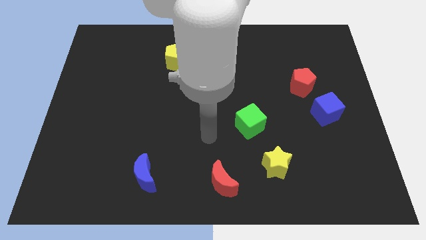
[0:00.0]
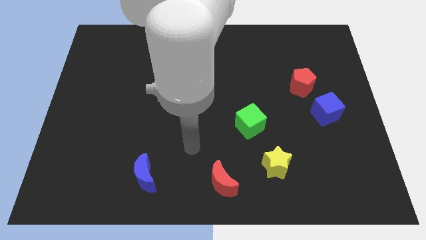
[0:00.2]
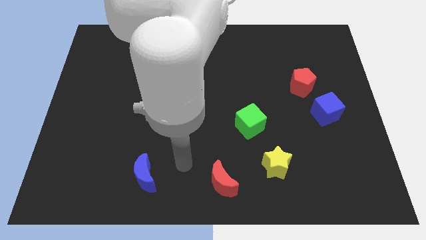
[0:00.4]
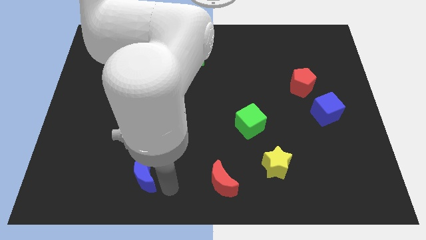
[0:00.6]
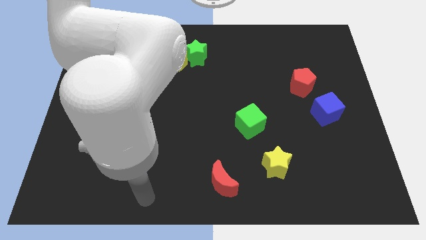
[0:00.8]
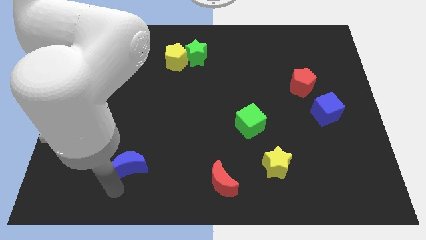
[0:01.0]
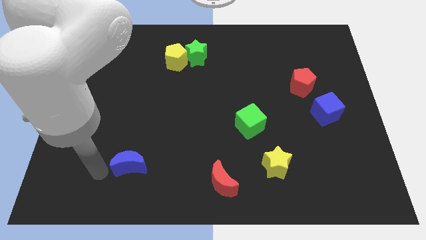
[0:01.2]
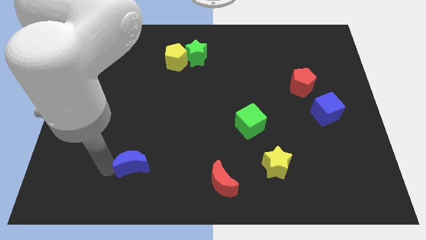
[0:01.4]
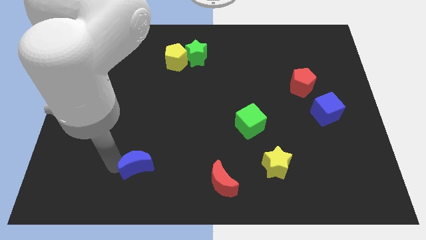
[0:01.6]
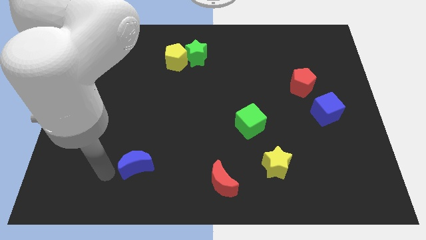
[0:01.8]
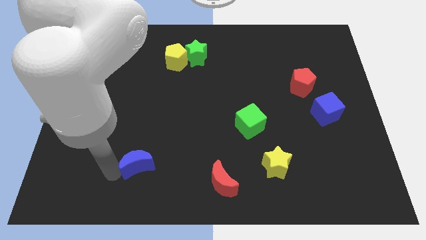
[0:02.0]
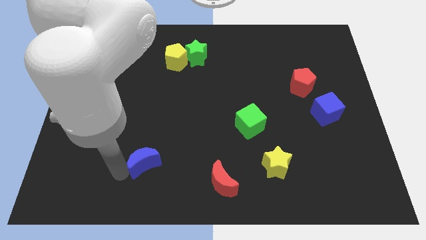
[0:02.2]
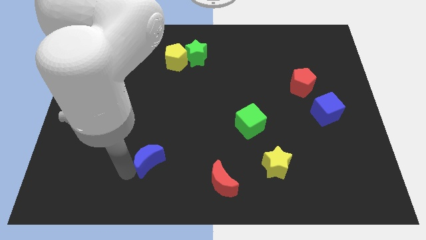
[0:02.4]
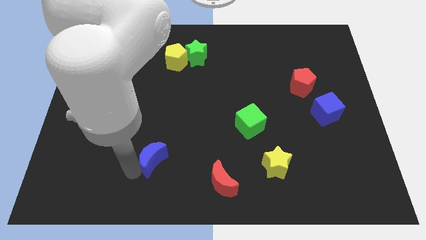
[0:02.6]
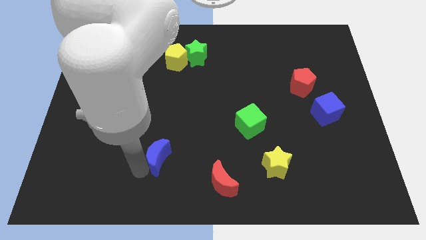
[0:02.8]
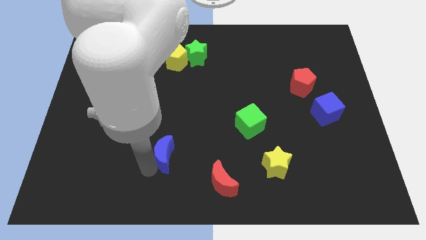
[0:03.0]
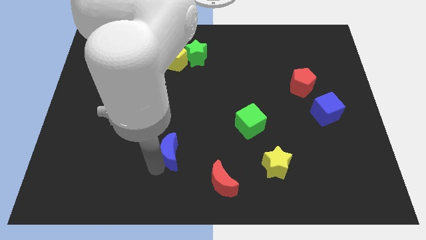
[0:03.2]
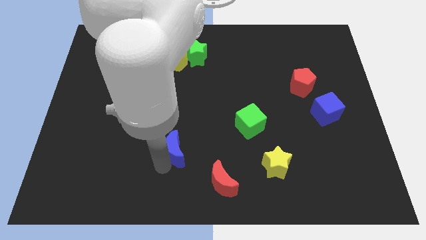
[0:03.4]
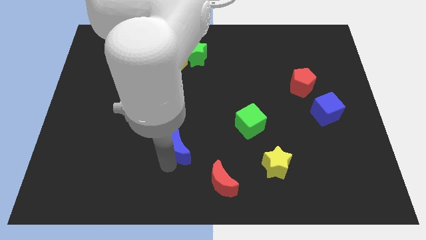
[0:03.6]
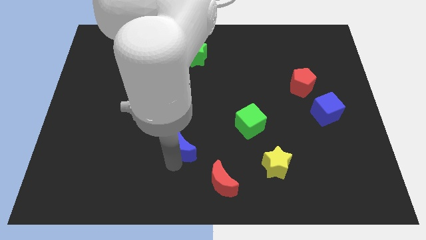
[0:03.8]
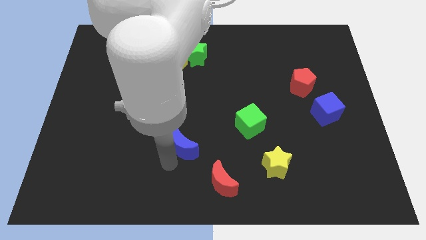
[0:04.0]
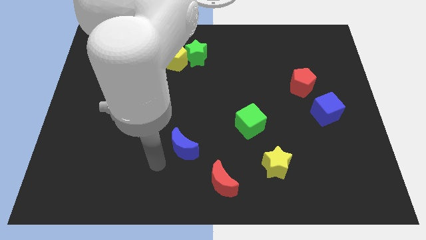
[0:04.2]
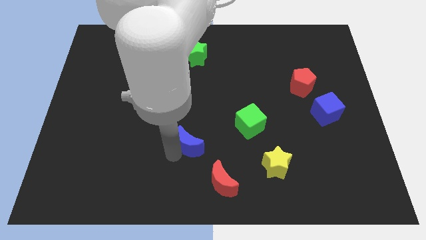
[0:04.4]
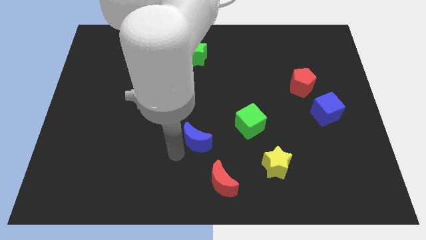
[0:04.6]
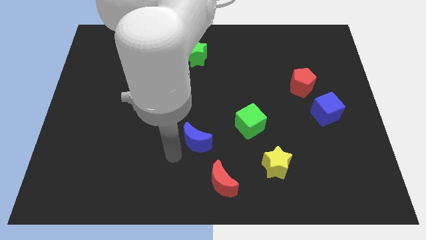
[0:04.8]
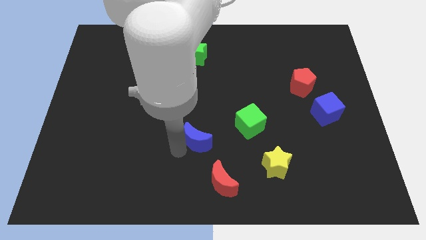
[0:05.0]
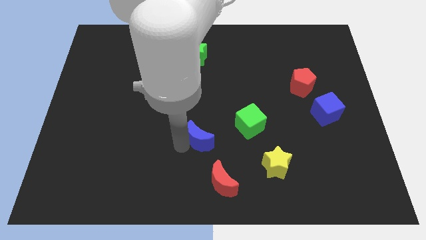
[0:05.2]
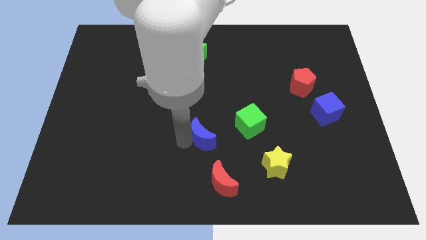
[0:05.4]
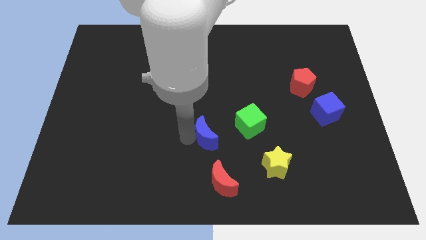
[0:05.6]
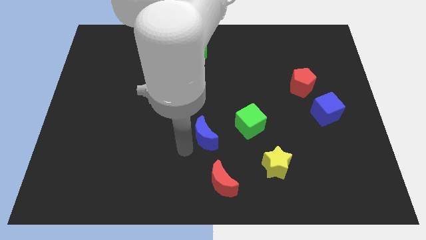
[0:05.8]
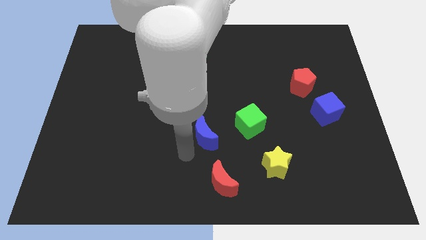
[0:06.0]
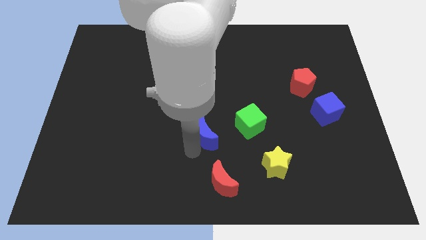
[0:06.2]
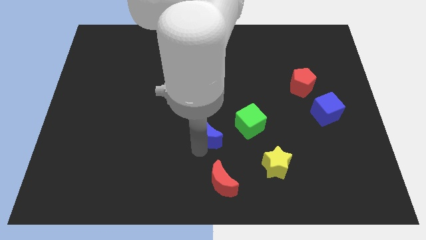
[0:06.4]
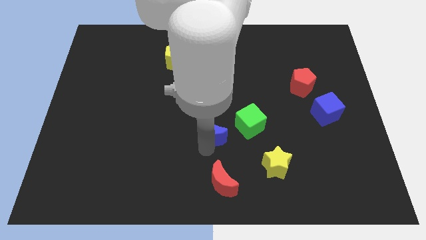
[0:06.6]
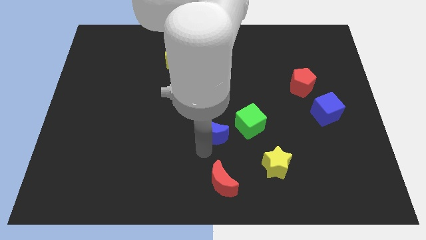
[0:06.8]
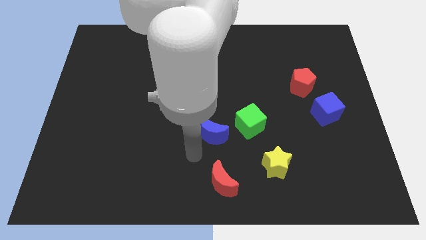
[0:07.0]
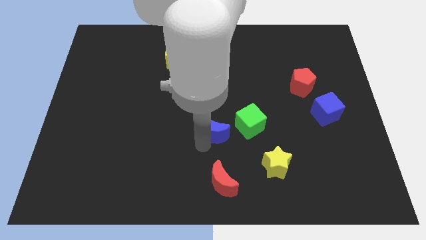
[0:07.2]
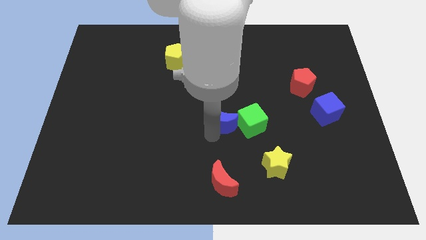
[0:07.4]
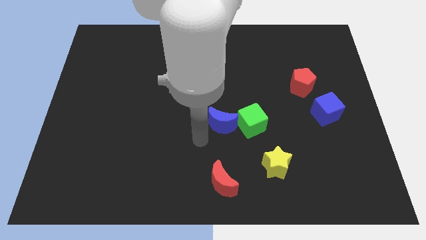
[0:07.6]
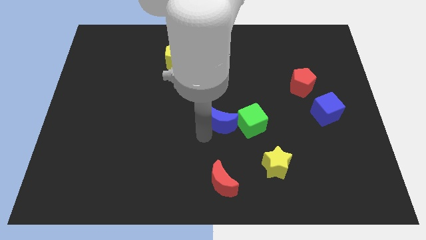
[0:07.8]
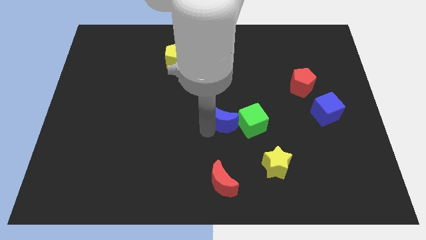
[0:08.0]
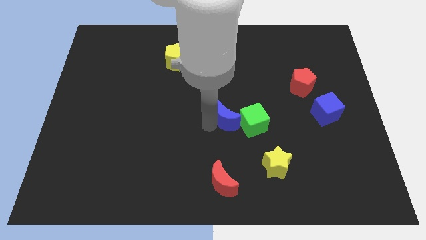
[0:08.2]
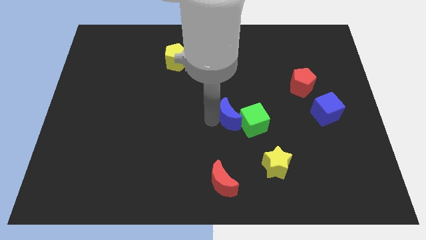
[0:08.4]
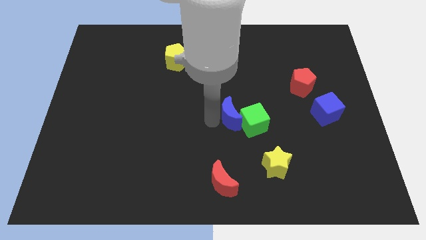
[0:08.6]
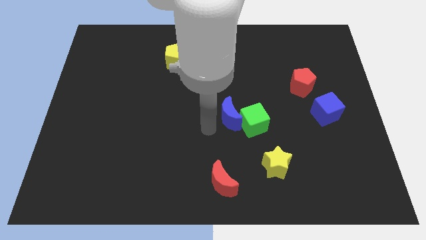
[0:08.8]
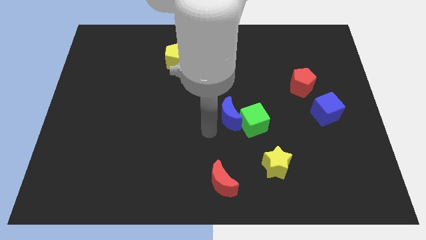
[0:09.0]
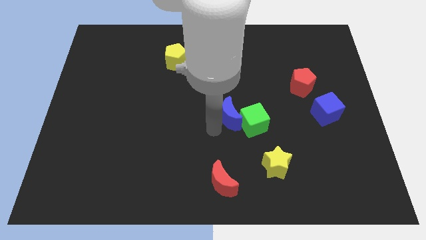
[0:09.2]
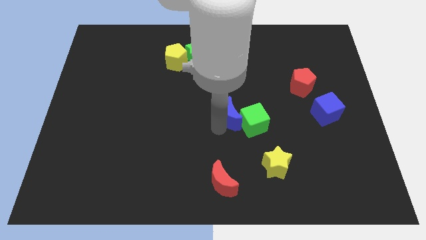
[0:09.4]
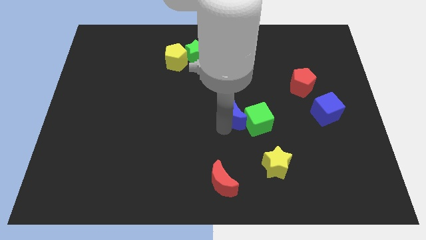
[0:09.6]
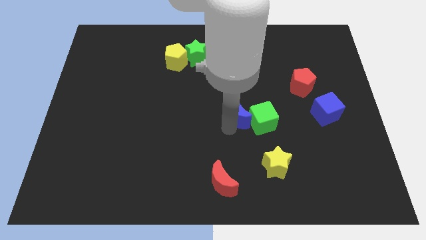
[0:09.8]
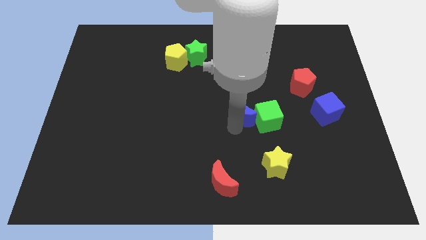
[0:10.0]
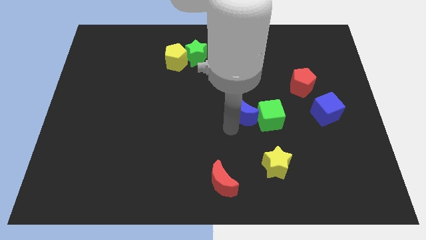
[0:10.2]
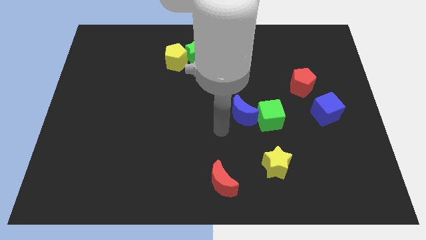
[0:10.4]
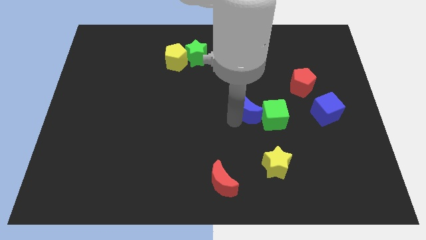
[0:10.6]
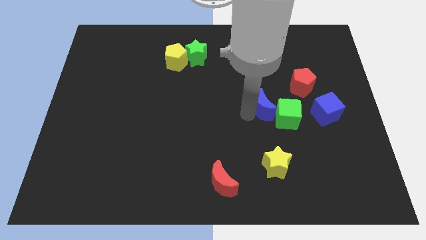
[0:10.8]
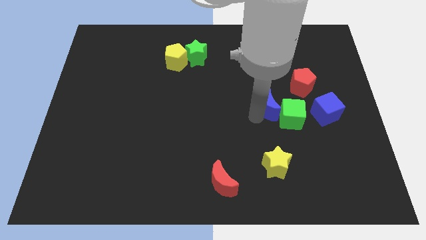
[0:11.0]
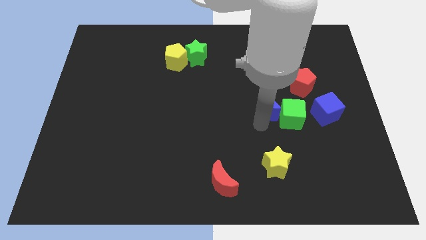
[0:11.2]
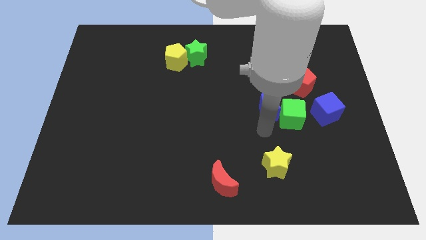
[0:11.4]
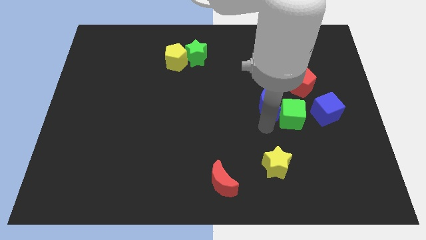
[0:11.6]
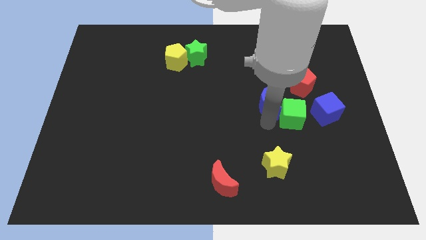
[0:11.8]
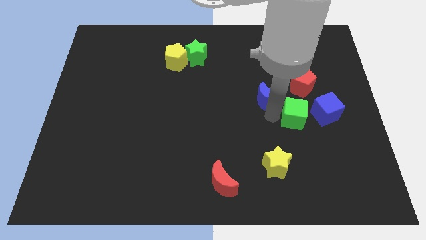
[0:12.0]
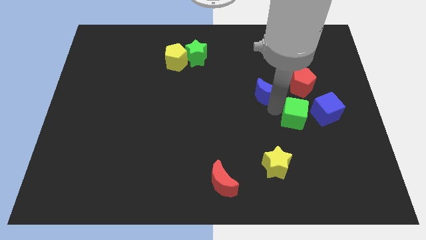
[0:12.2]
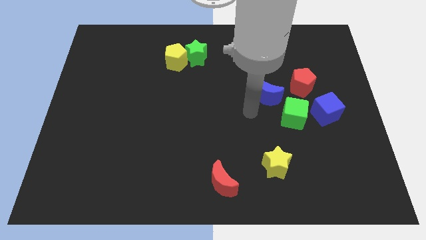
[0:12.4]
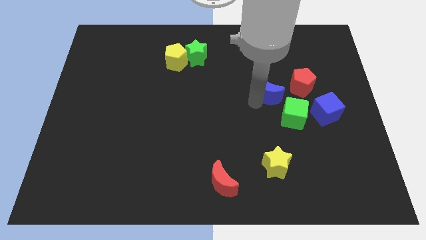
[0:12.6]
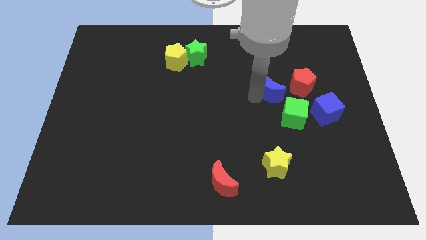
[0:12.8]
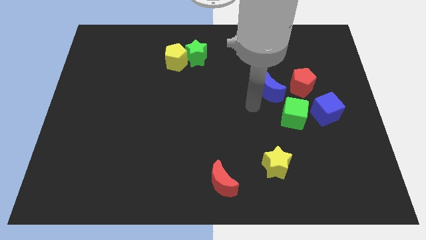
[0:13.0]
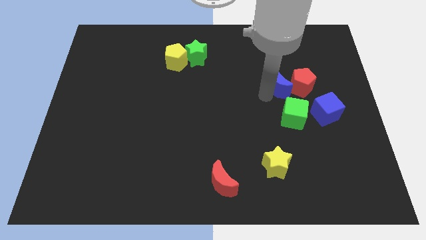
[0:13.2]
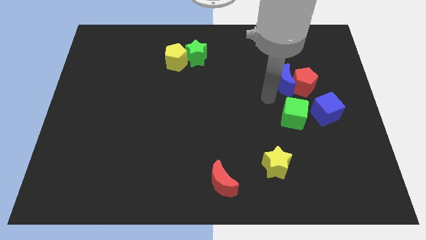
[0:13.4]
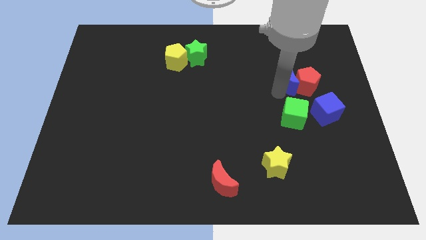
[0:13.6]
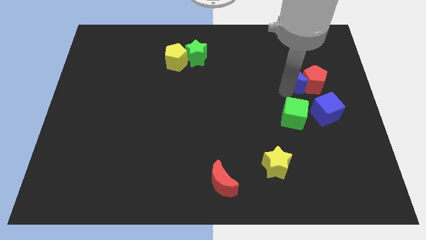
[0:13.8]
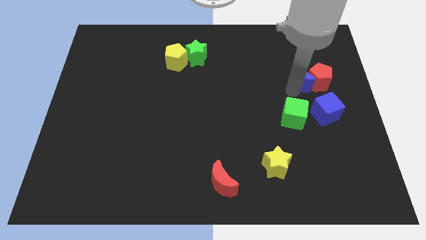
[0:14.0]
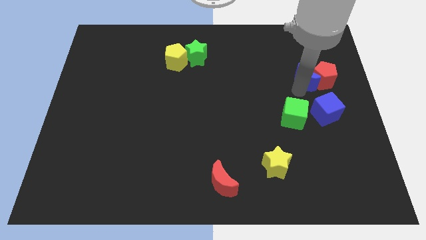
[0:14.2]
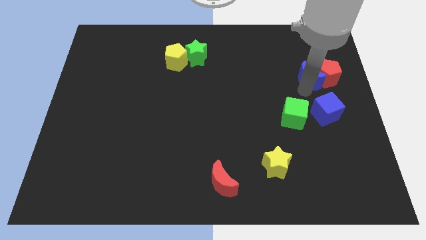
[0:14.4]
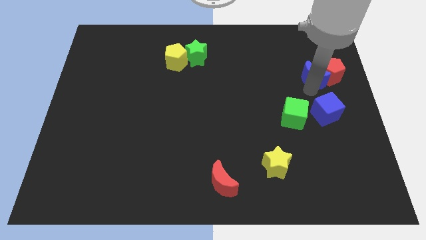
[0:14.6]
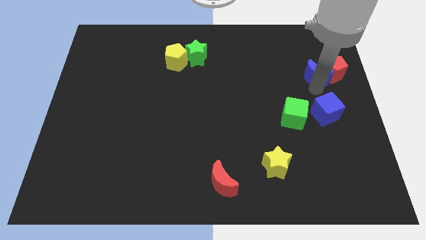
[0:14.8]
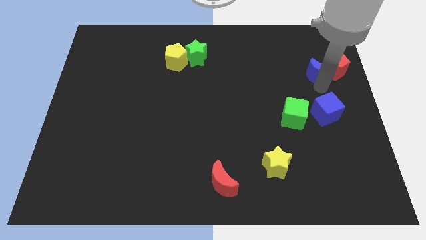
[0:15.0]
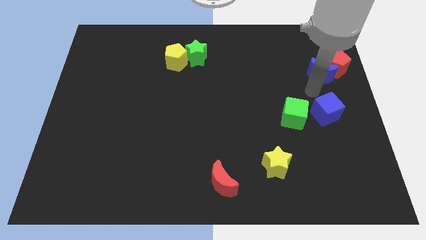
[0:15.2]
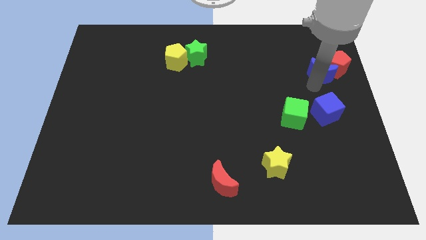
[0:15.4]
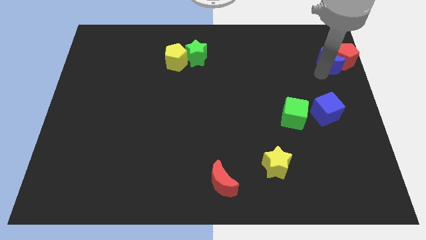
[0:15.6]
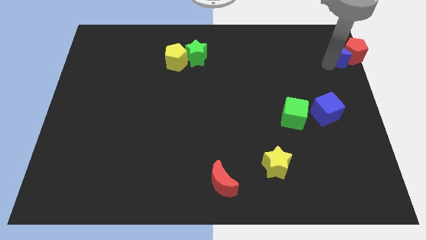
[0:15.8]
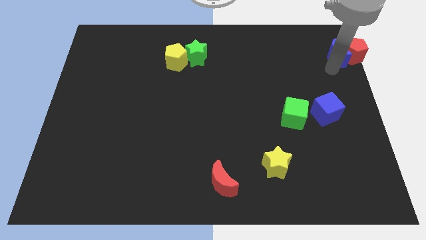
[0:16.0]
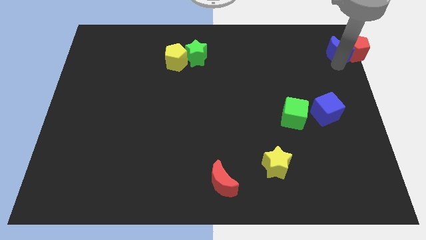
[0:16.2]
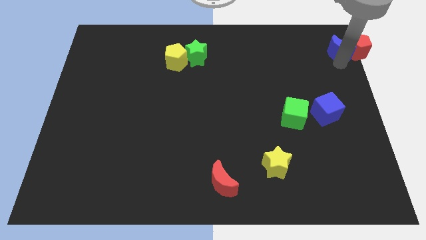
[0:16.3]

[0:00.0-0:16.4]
move the blue moon to the upper right corner
